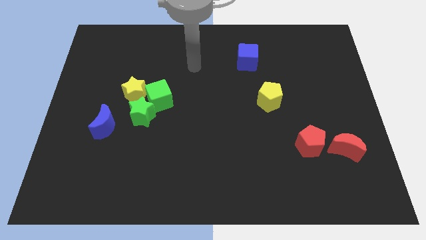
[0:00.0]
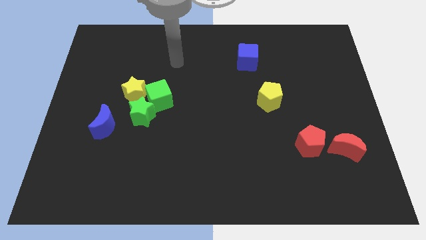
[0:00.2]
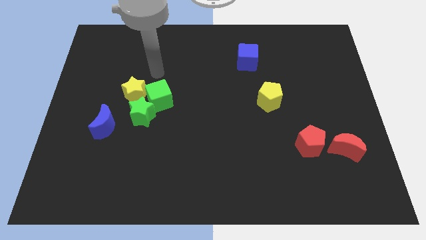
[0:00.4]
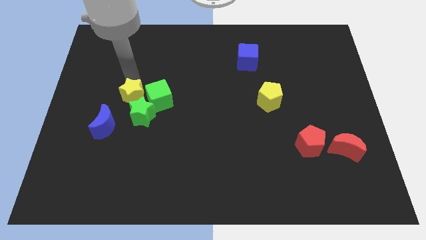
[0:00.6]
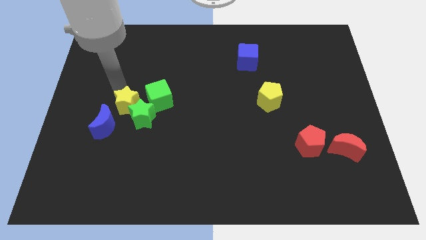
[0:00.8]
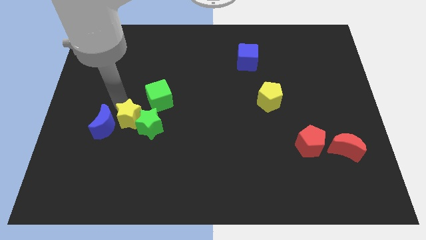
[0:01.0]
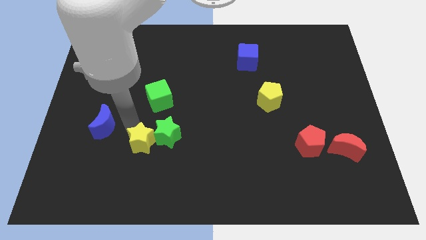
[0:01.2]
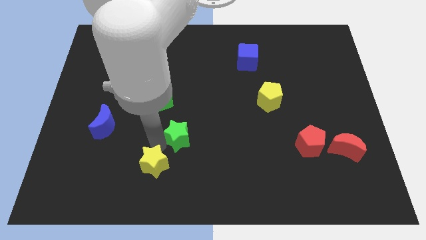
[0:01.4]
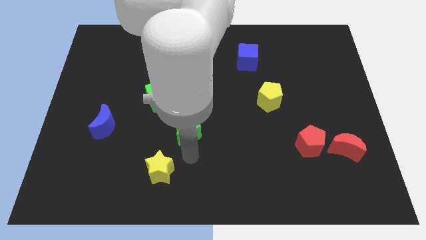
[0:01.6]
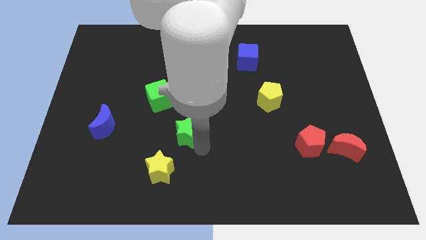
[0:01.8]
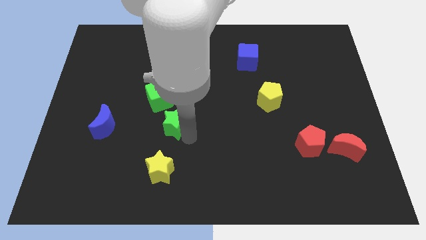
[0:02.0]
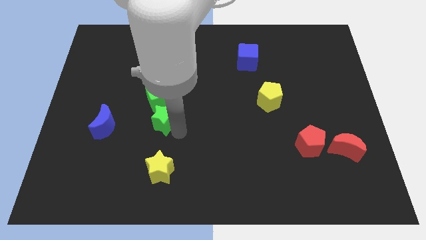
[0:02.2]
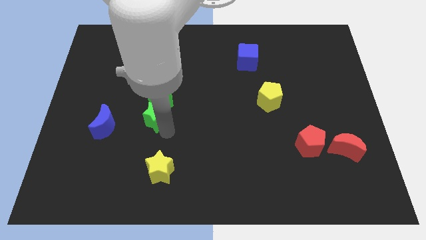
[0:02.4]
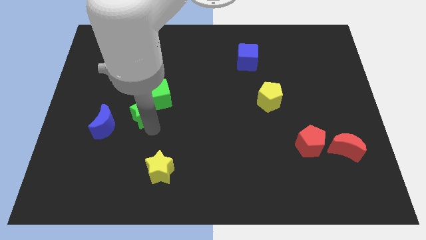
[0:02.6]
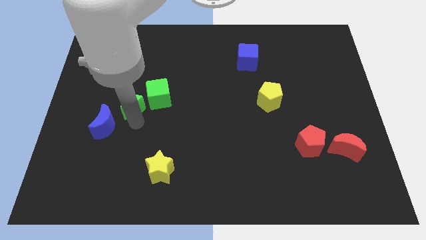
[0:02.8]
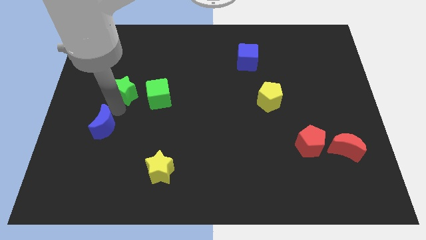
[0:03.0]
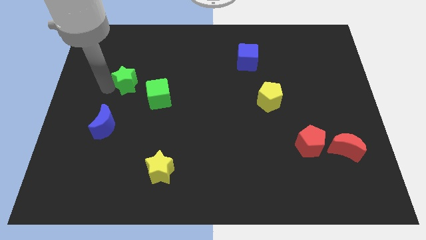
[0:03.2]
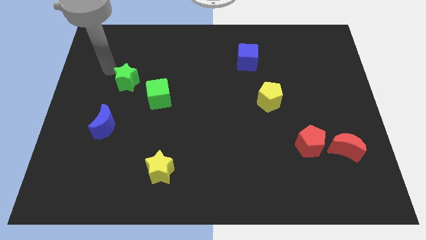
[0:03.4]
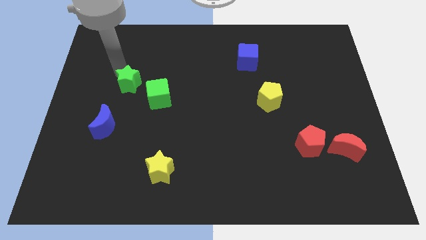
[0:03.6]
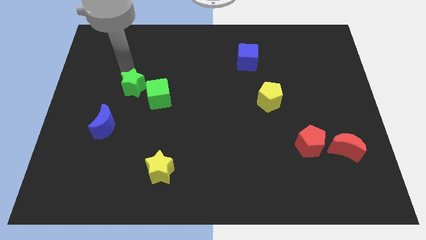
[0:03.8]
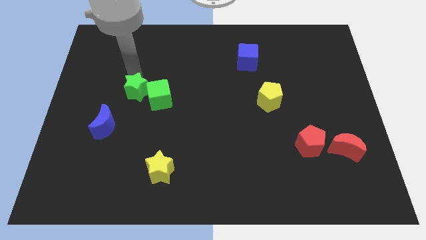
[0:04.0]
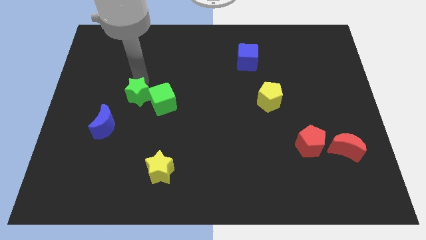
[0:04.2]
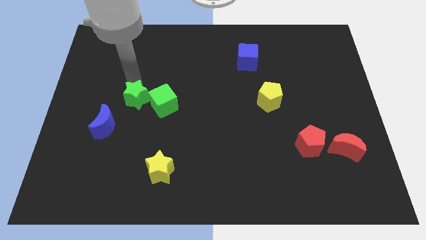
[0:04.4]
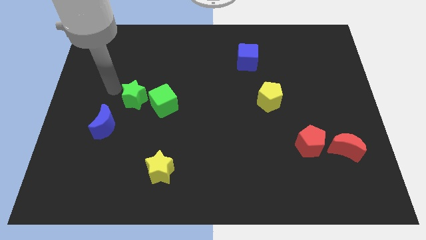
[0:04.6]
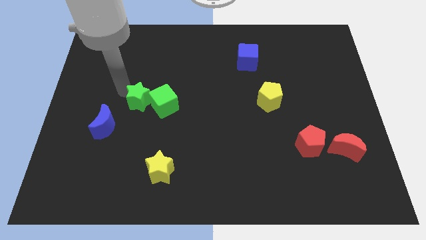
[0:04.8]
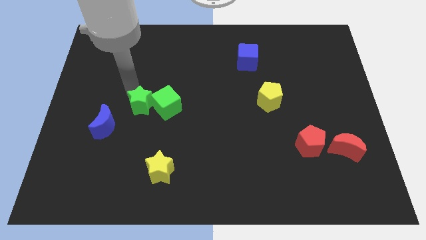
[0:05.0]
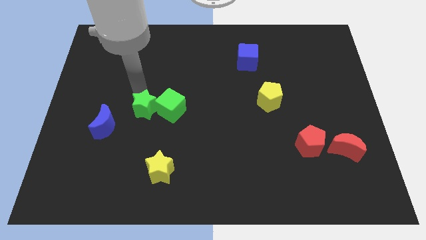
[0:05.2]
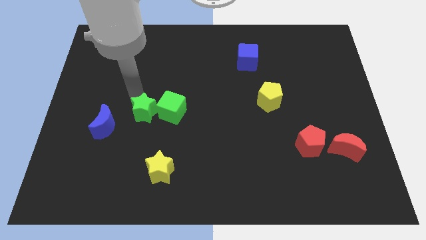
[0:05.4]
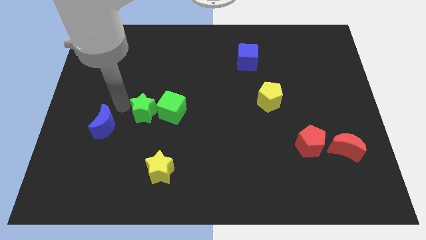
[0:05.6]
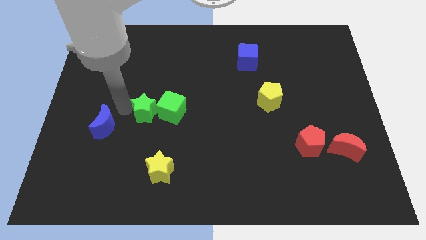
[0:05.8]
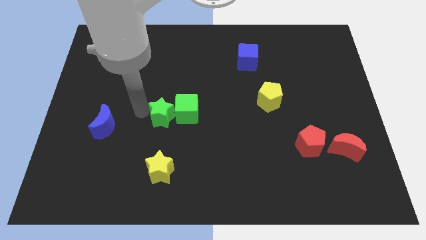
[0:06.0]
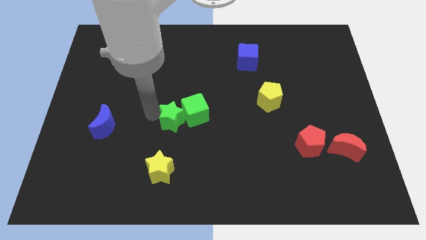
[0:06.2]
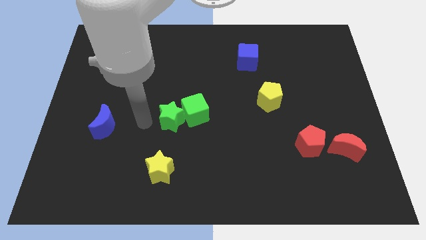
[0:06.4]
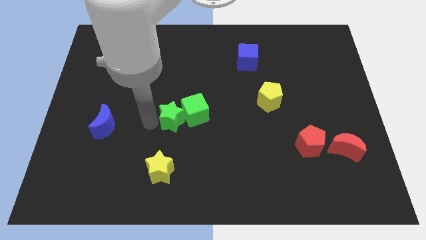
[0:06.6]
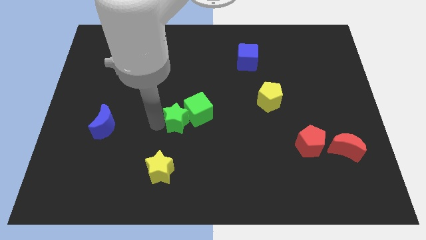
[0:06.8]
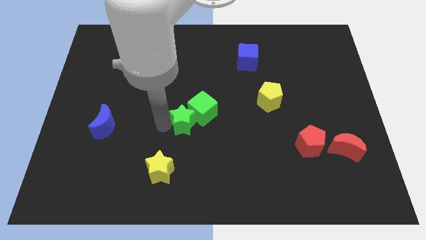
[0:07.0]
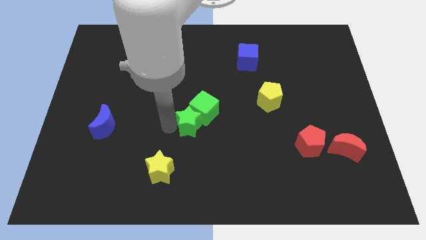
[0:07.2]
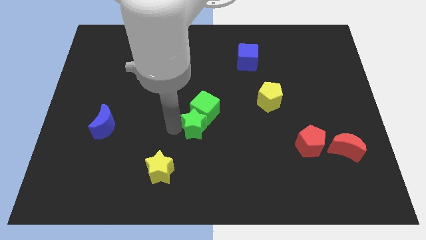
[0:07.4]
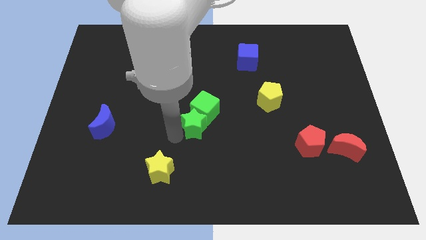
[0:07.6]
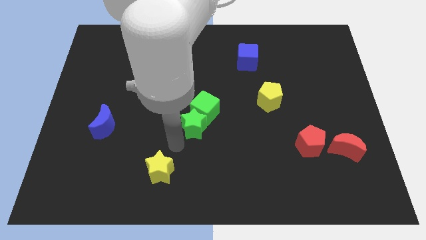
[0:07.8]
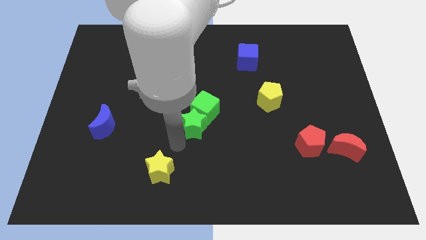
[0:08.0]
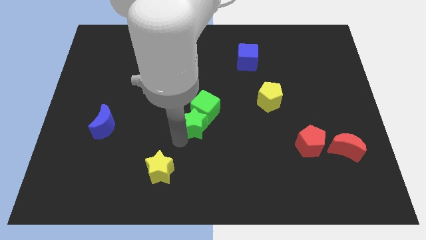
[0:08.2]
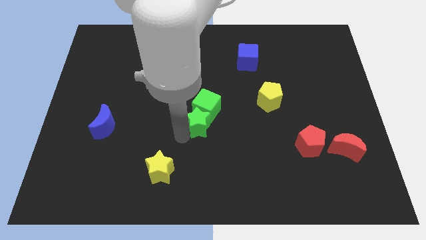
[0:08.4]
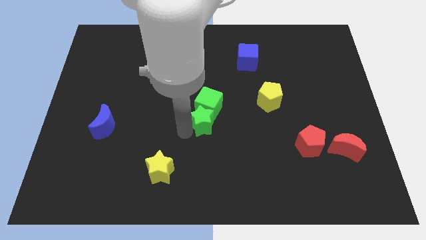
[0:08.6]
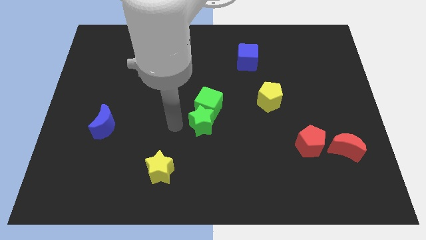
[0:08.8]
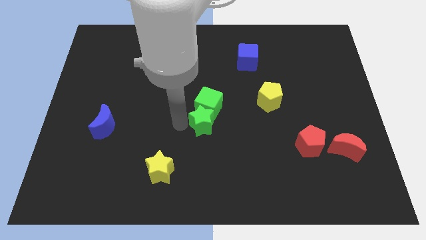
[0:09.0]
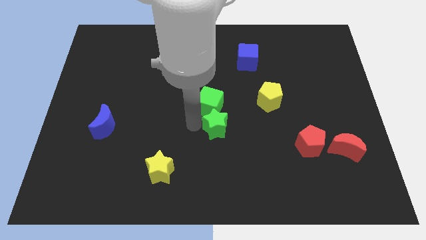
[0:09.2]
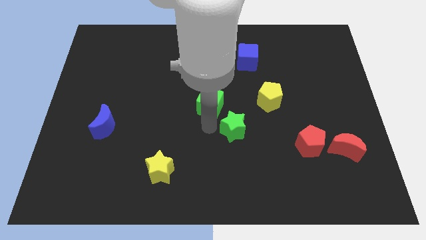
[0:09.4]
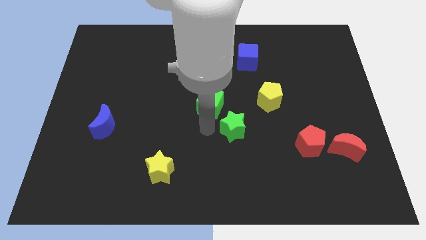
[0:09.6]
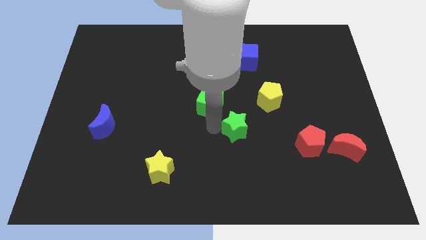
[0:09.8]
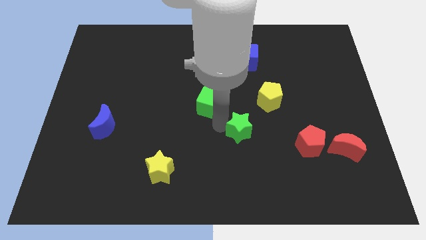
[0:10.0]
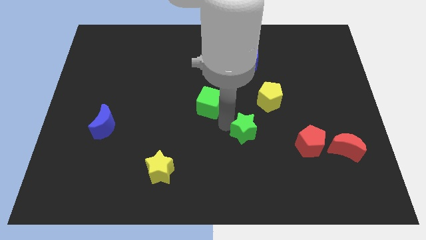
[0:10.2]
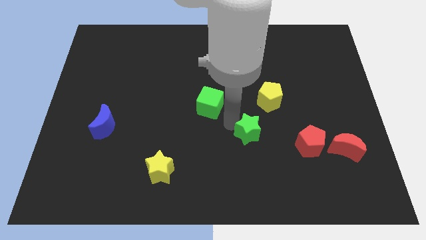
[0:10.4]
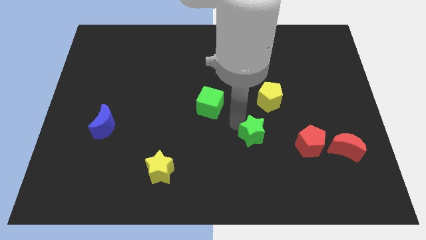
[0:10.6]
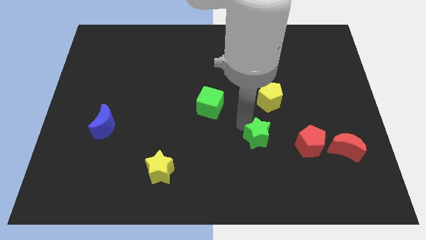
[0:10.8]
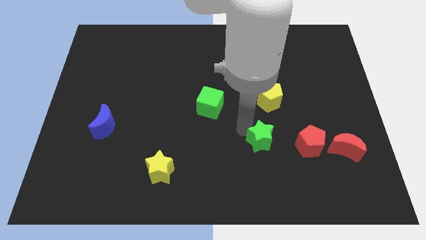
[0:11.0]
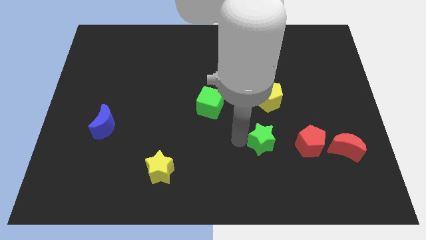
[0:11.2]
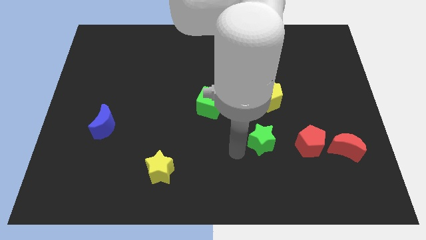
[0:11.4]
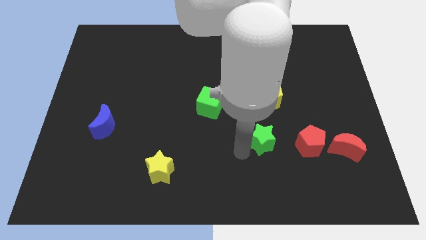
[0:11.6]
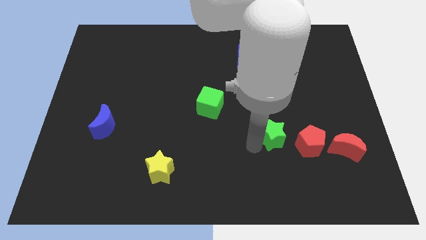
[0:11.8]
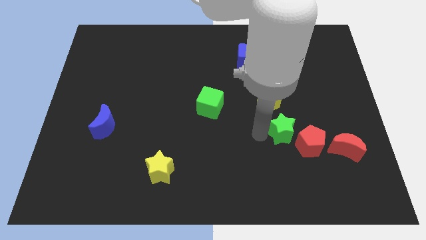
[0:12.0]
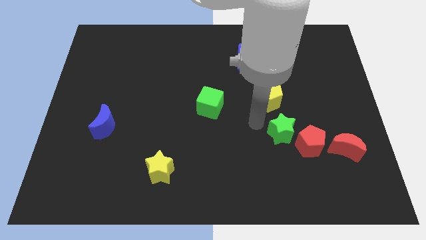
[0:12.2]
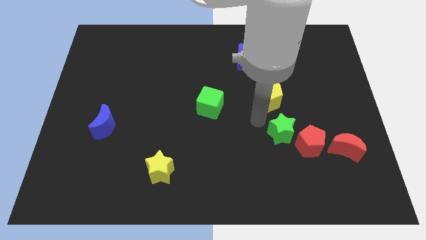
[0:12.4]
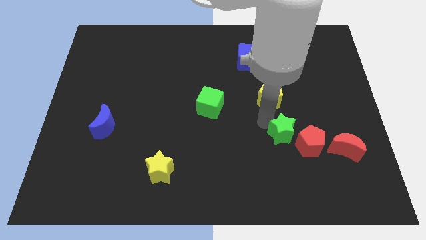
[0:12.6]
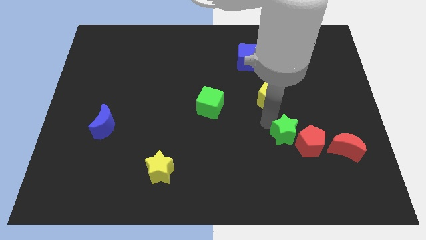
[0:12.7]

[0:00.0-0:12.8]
slide the green star next to the red pentagon

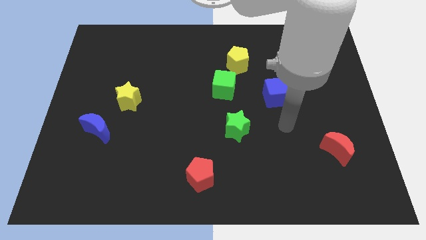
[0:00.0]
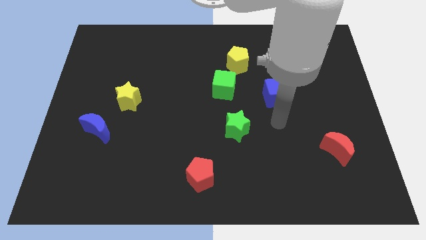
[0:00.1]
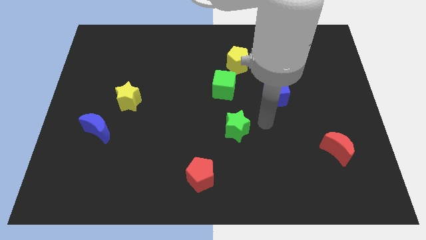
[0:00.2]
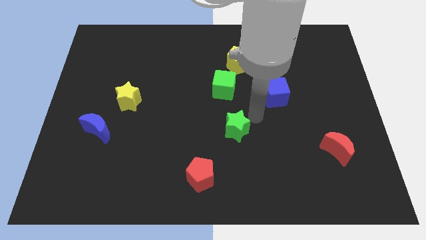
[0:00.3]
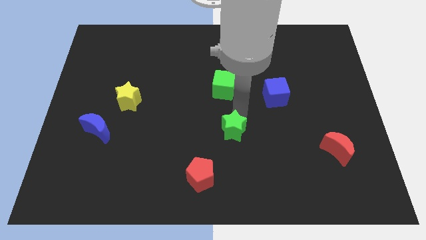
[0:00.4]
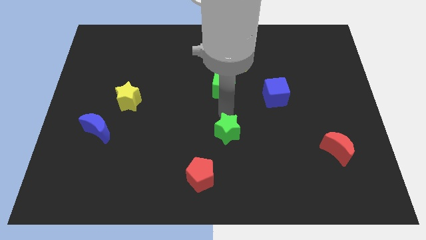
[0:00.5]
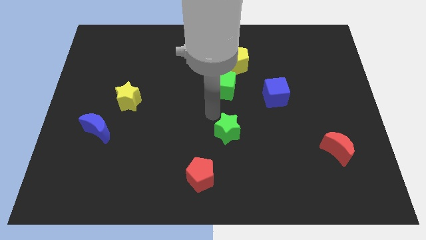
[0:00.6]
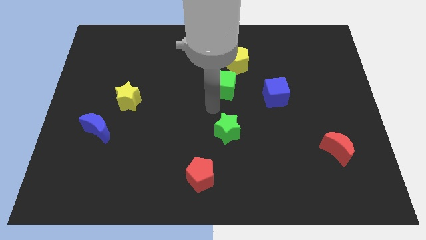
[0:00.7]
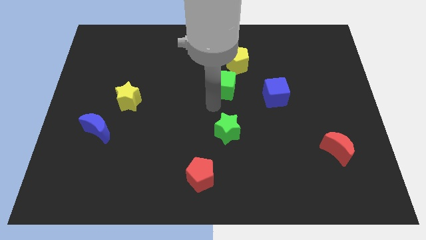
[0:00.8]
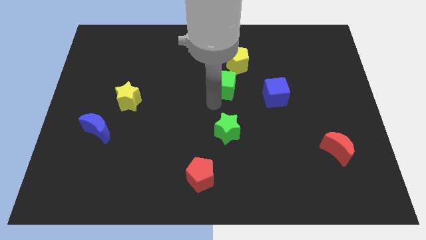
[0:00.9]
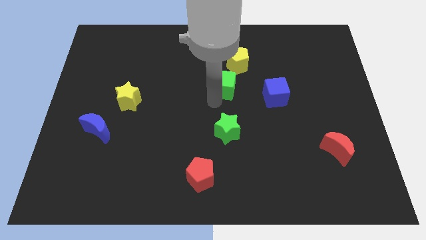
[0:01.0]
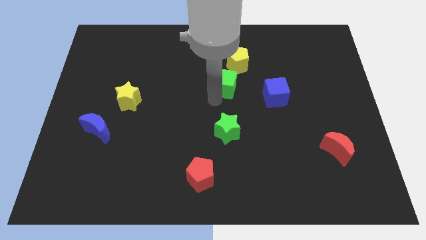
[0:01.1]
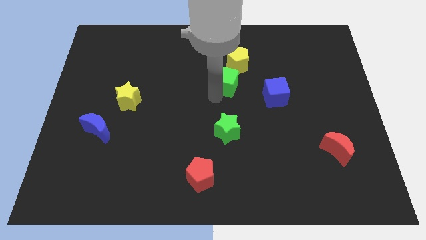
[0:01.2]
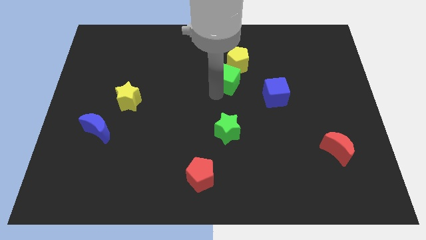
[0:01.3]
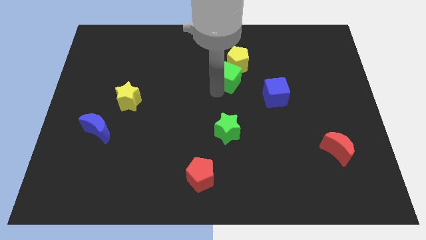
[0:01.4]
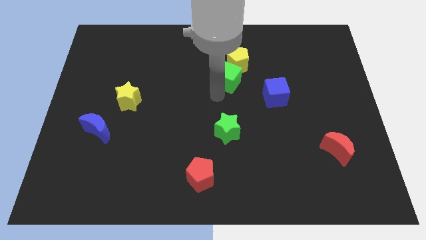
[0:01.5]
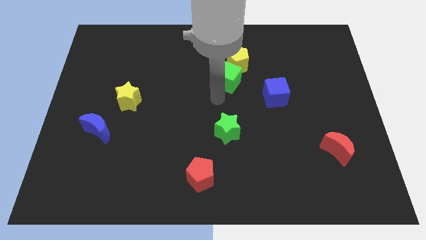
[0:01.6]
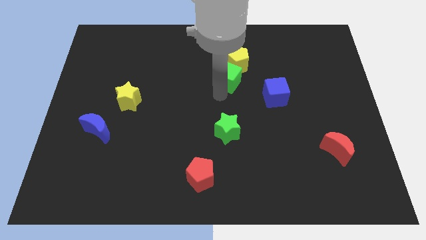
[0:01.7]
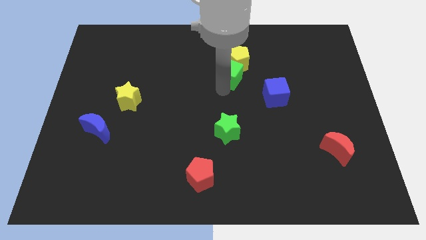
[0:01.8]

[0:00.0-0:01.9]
put the green cube close to the yellow pentagon
